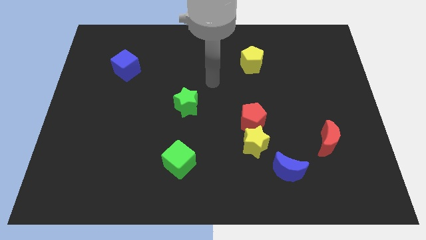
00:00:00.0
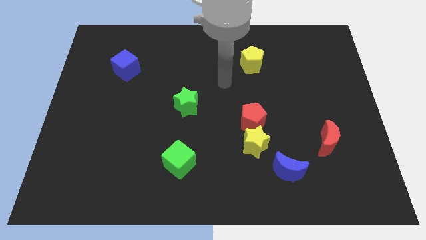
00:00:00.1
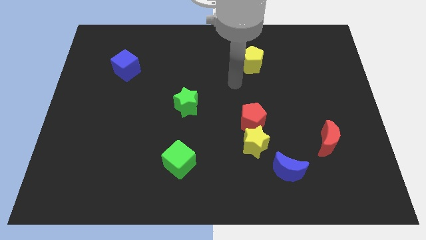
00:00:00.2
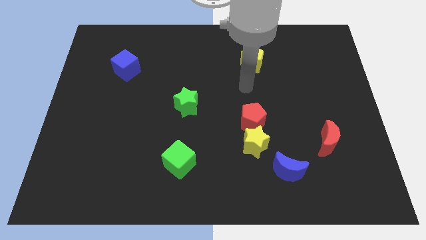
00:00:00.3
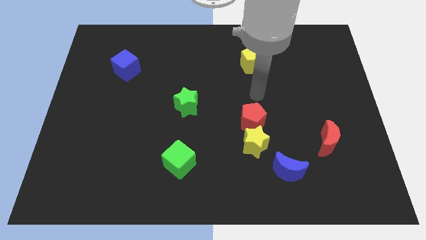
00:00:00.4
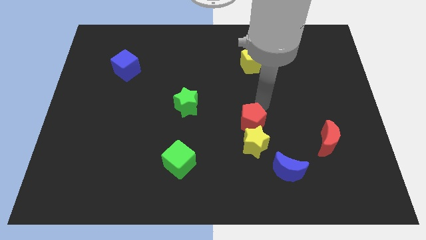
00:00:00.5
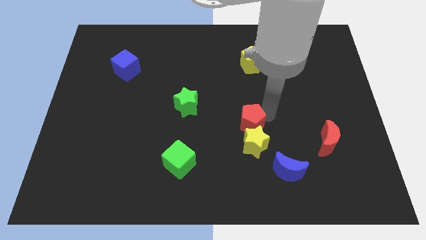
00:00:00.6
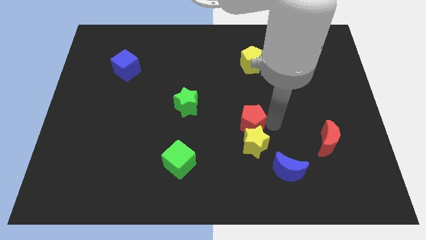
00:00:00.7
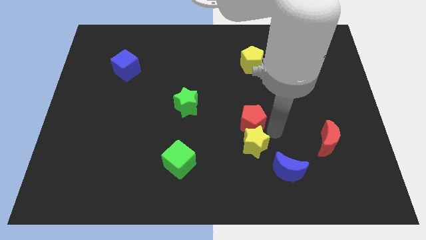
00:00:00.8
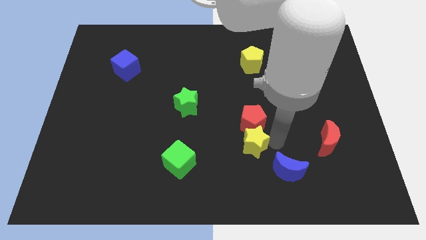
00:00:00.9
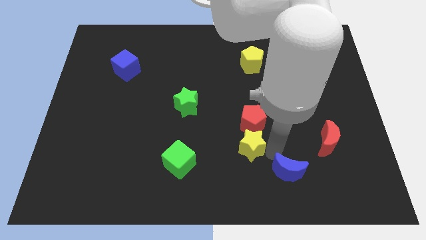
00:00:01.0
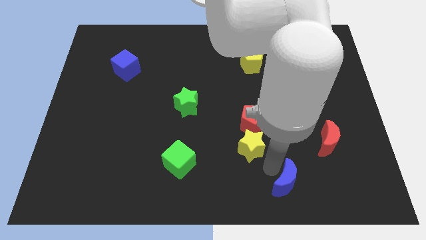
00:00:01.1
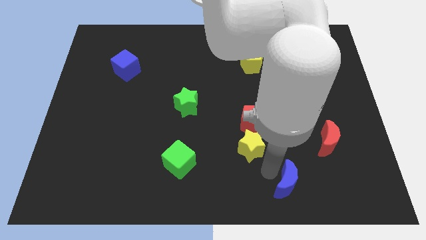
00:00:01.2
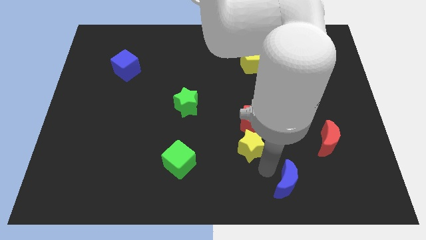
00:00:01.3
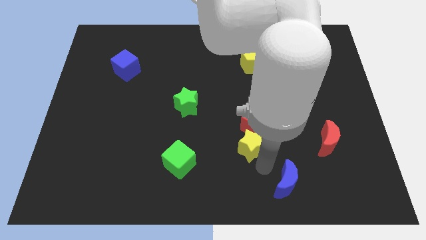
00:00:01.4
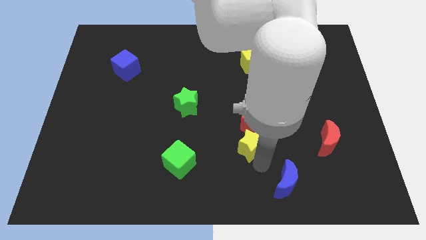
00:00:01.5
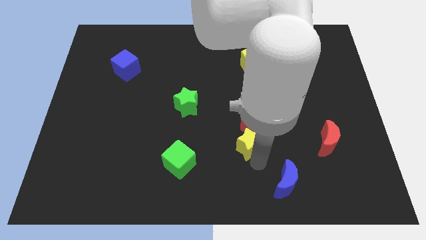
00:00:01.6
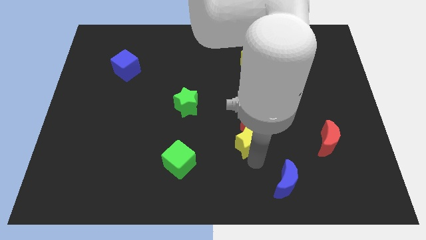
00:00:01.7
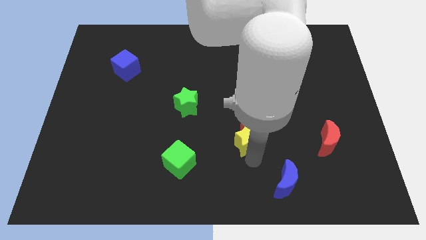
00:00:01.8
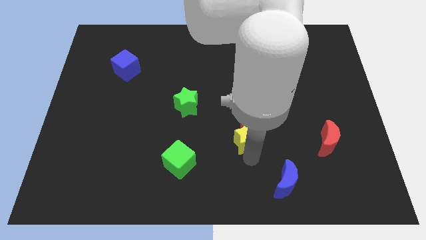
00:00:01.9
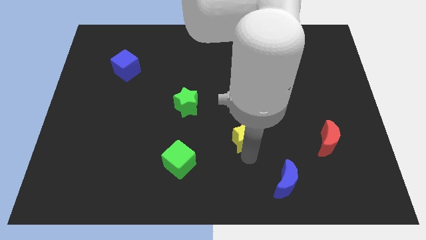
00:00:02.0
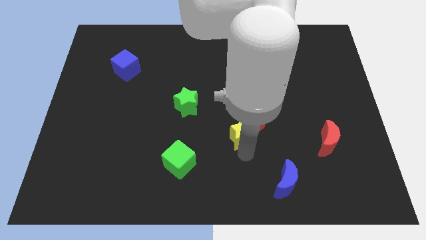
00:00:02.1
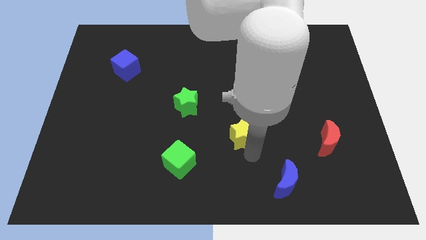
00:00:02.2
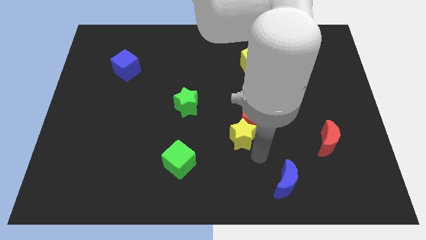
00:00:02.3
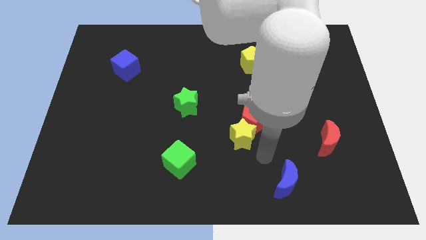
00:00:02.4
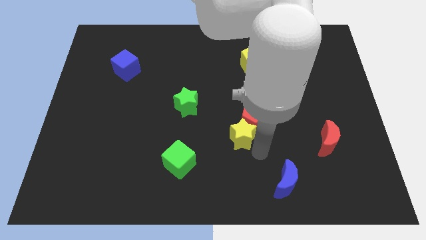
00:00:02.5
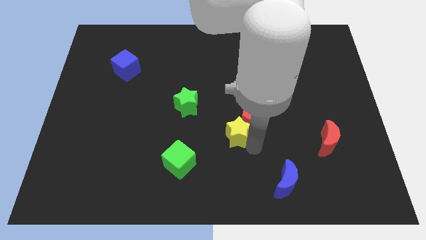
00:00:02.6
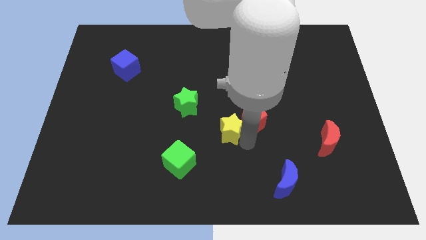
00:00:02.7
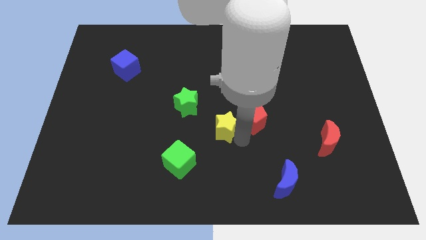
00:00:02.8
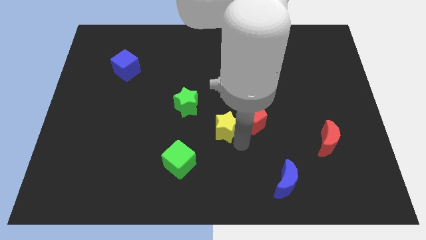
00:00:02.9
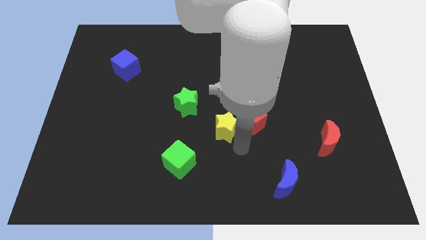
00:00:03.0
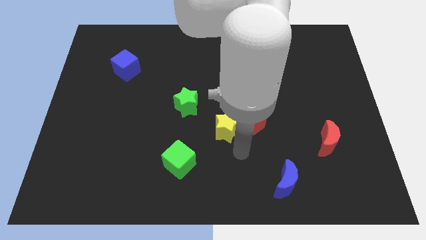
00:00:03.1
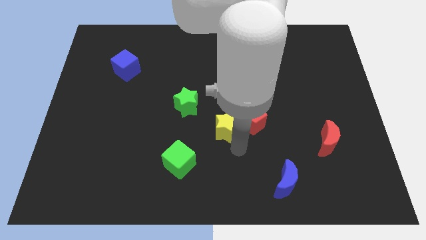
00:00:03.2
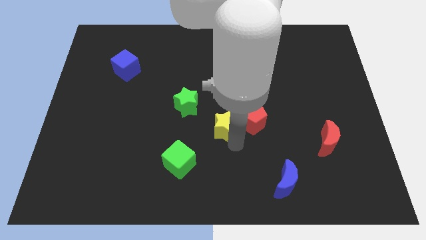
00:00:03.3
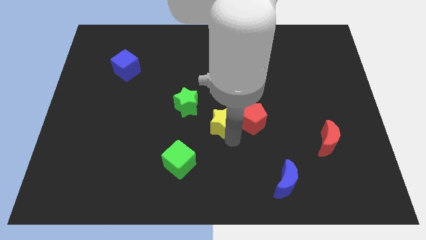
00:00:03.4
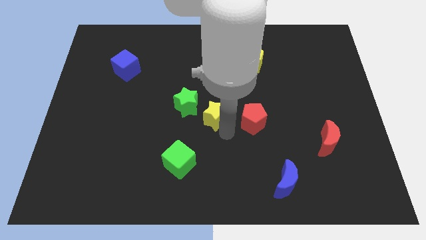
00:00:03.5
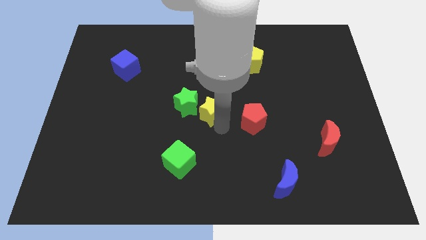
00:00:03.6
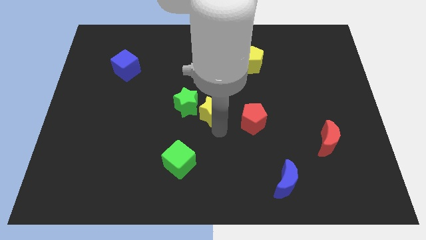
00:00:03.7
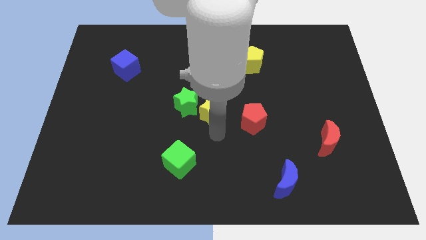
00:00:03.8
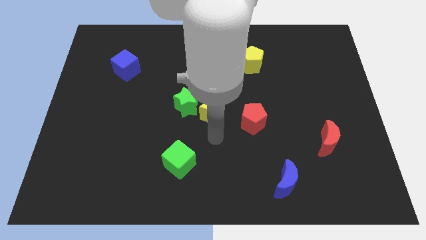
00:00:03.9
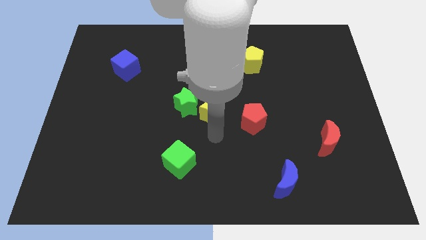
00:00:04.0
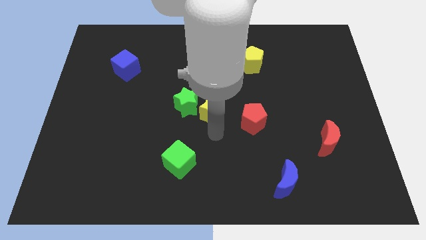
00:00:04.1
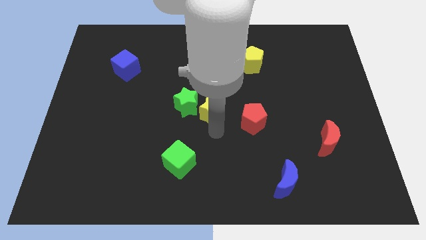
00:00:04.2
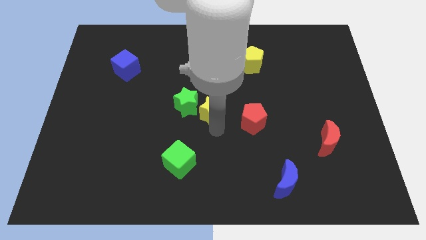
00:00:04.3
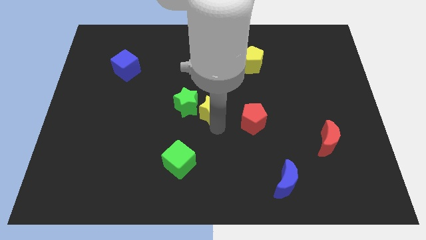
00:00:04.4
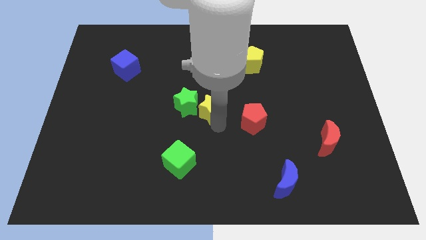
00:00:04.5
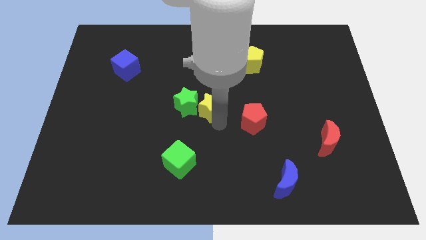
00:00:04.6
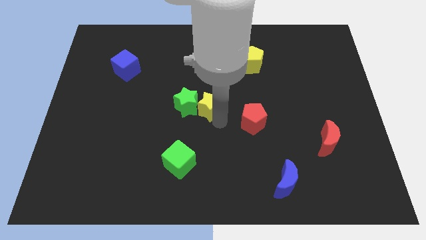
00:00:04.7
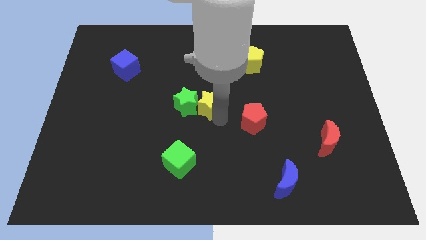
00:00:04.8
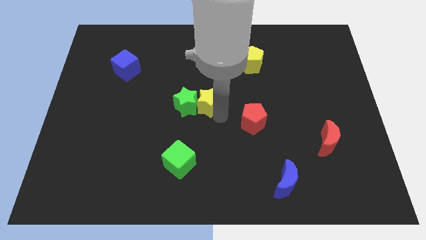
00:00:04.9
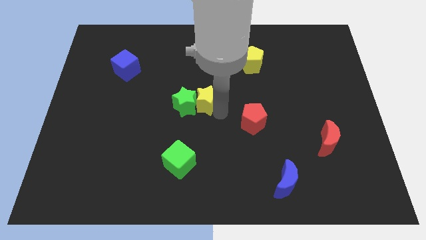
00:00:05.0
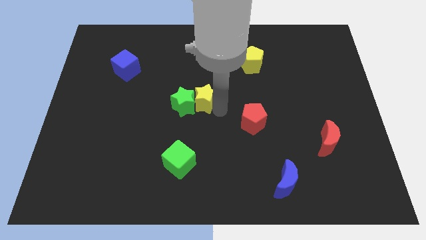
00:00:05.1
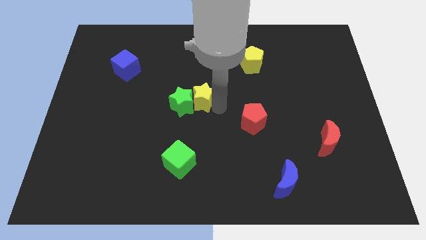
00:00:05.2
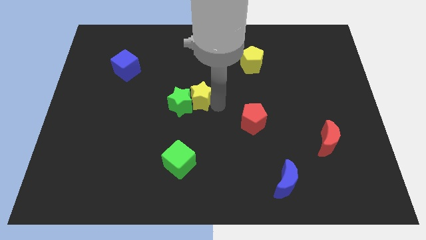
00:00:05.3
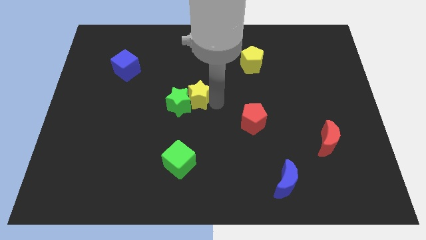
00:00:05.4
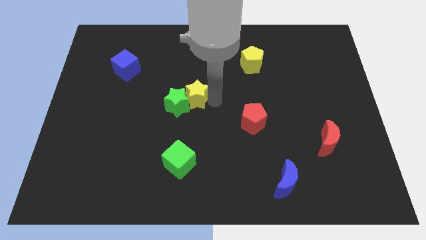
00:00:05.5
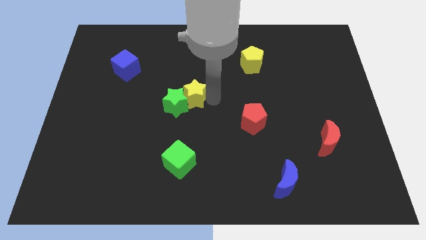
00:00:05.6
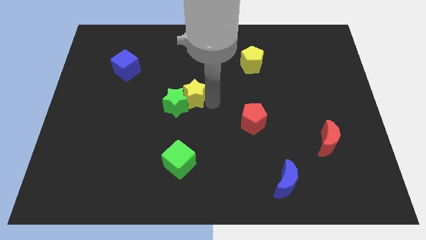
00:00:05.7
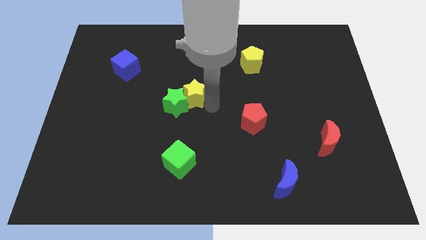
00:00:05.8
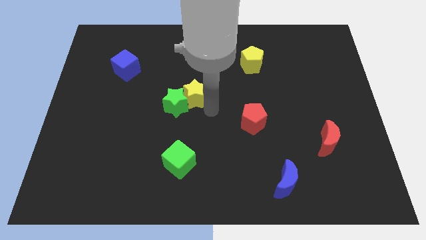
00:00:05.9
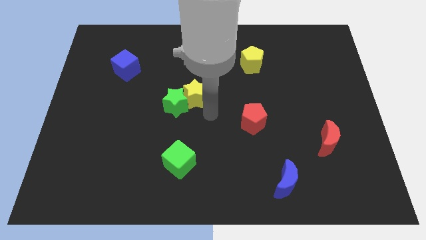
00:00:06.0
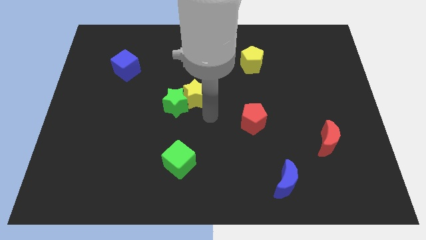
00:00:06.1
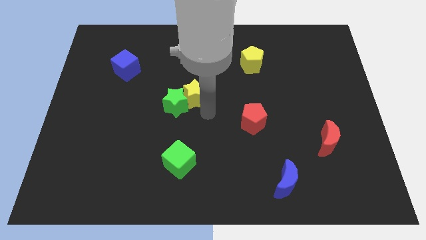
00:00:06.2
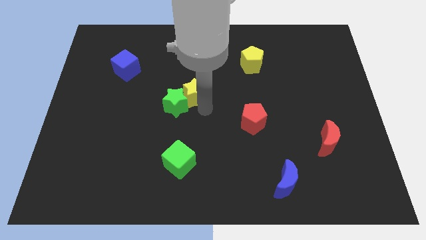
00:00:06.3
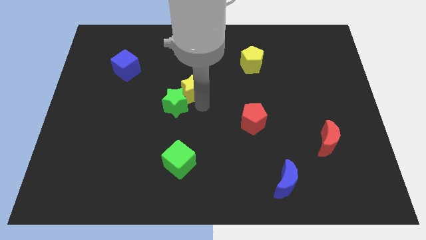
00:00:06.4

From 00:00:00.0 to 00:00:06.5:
push the yellow star up and to the left

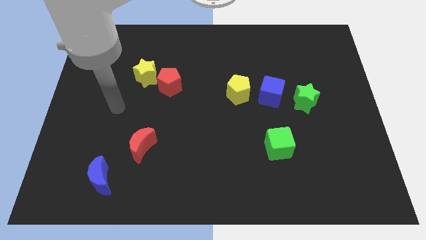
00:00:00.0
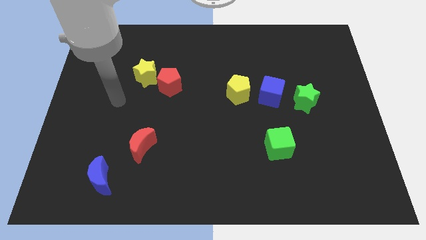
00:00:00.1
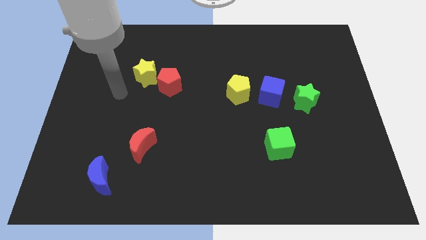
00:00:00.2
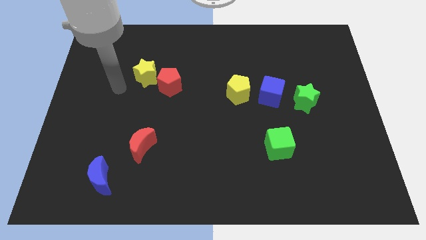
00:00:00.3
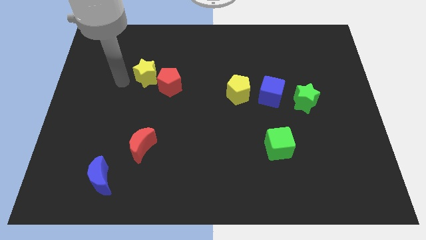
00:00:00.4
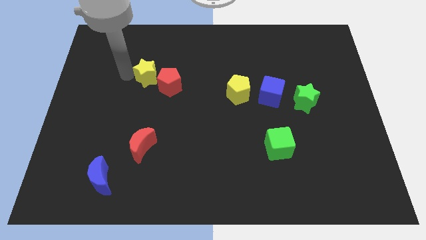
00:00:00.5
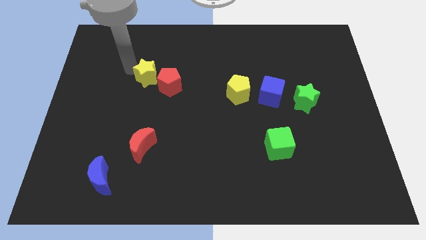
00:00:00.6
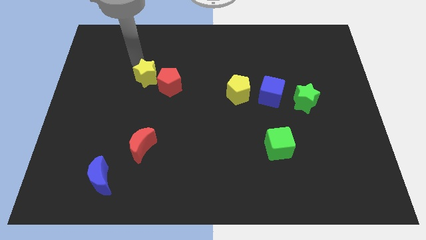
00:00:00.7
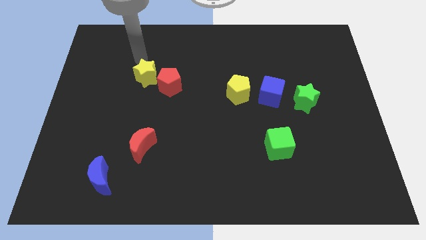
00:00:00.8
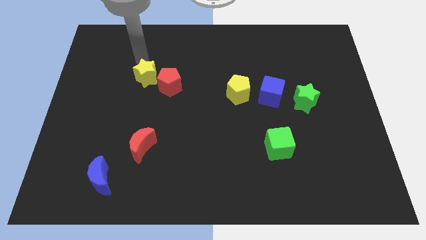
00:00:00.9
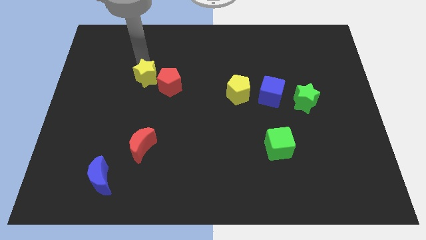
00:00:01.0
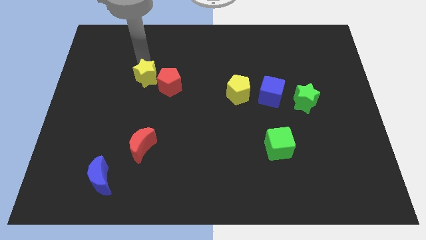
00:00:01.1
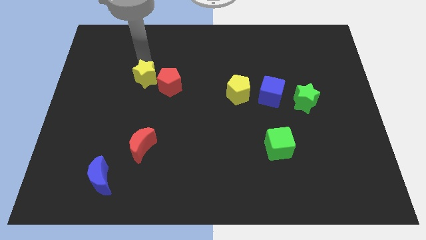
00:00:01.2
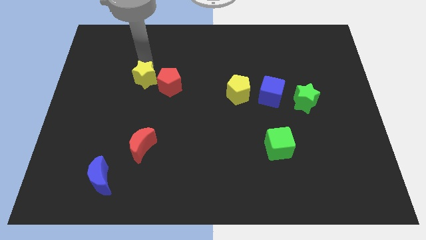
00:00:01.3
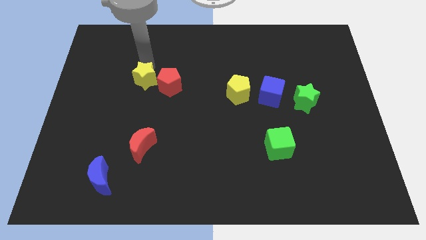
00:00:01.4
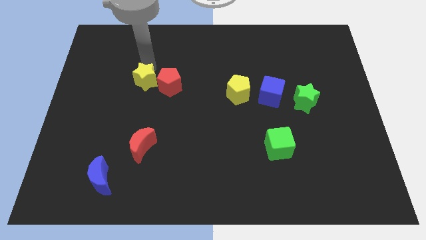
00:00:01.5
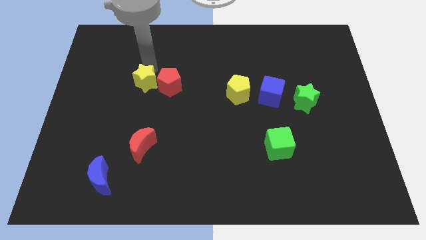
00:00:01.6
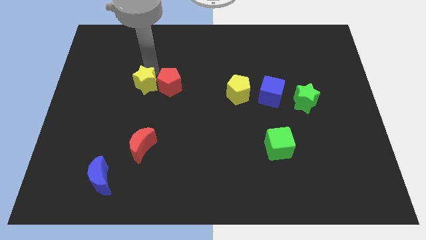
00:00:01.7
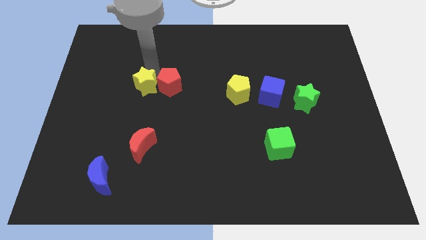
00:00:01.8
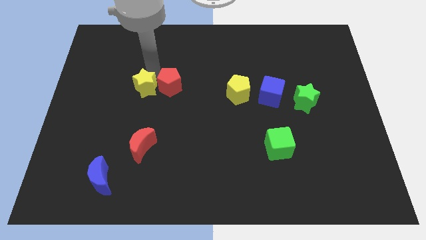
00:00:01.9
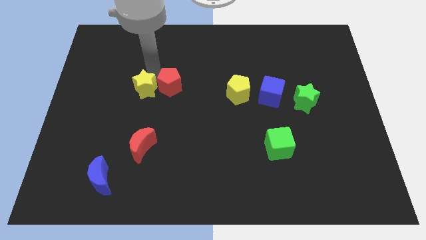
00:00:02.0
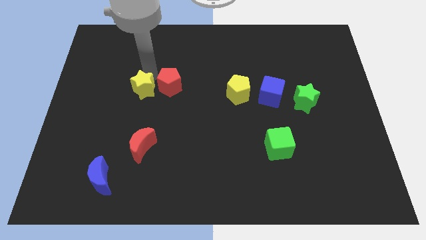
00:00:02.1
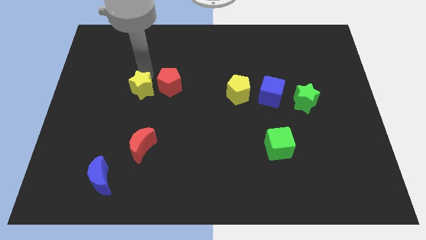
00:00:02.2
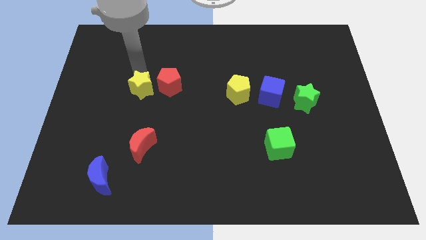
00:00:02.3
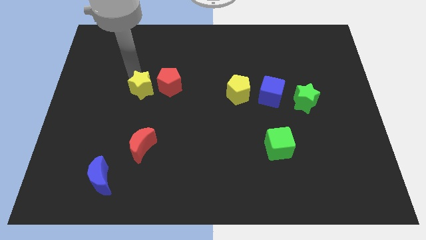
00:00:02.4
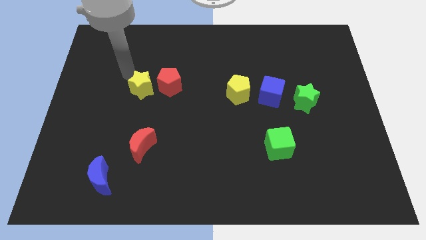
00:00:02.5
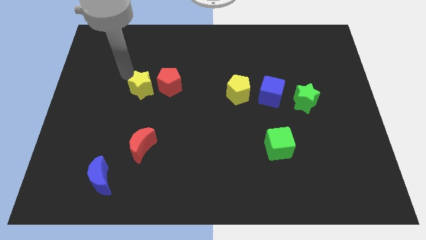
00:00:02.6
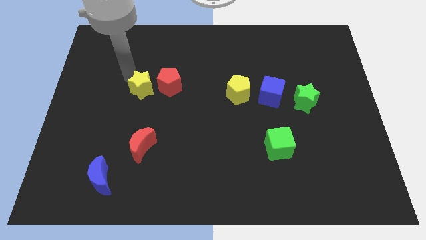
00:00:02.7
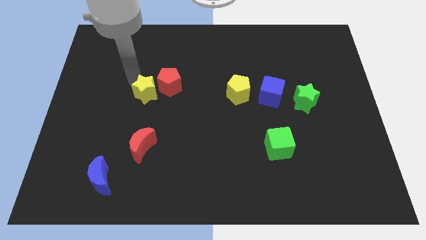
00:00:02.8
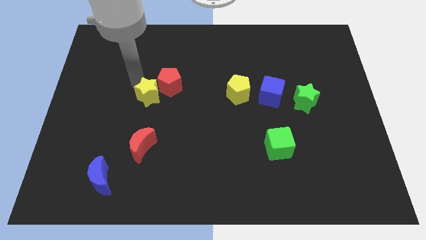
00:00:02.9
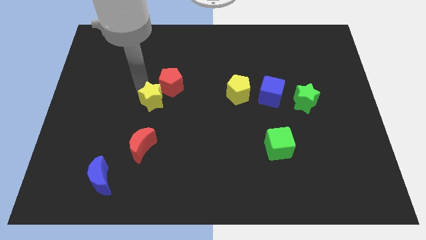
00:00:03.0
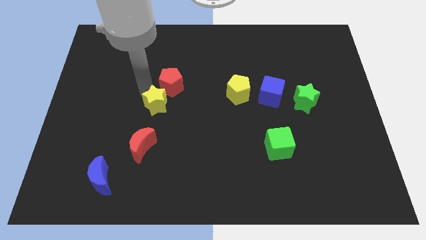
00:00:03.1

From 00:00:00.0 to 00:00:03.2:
slide the yellow star downwards and right diagonally somewhat
